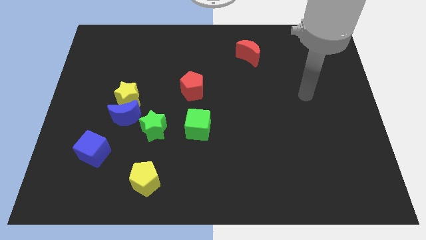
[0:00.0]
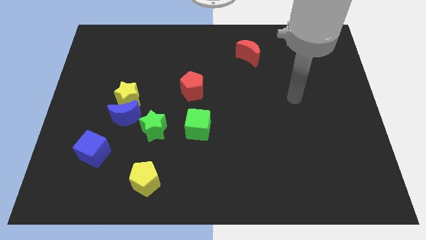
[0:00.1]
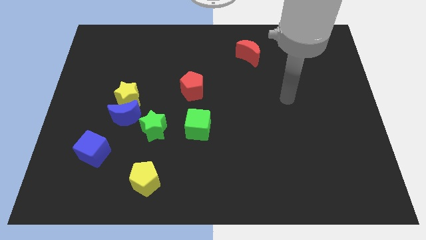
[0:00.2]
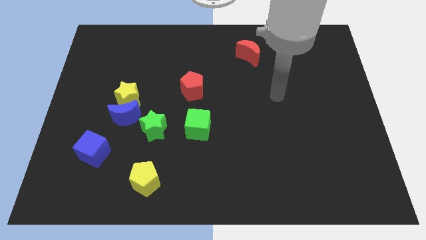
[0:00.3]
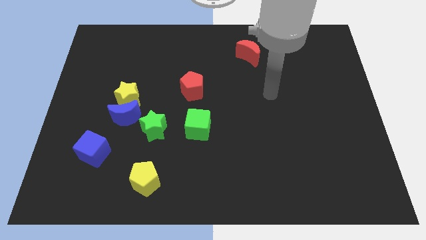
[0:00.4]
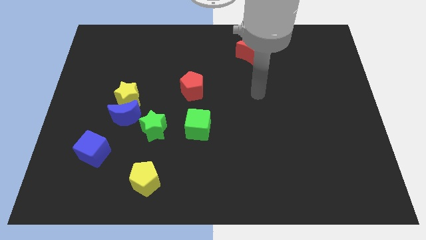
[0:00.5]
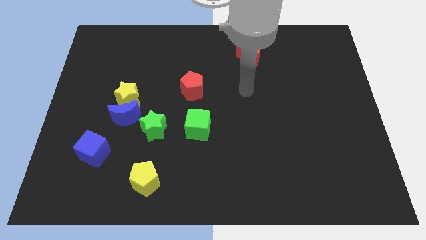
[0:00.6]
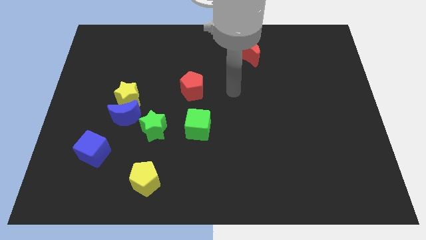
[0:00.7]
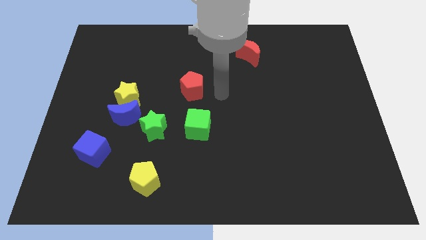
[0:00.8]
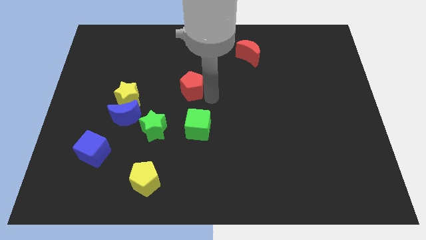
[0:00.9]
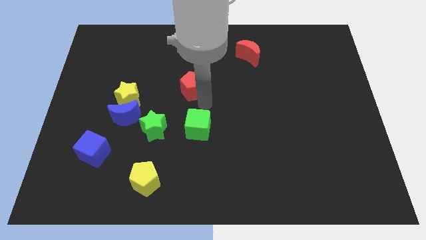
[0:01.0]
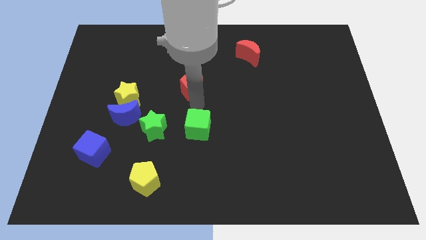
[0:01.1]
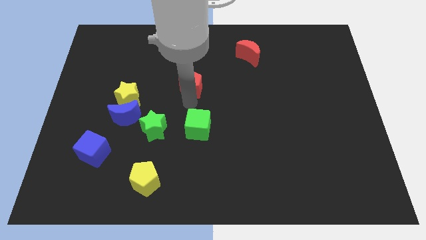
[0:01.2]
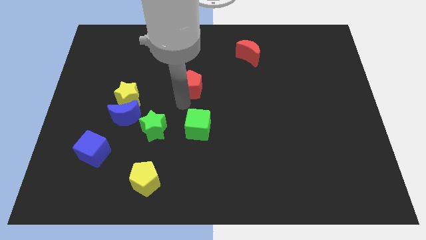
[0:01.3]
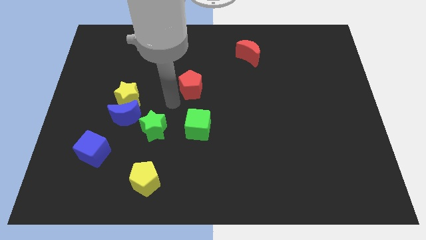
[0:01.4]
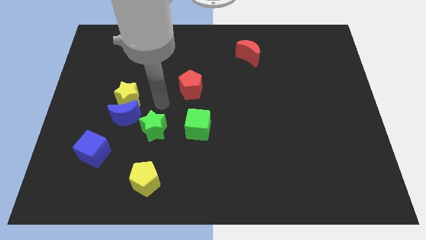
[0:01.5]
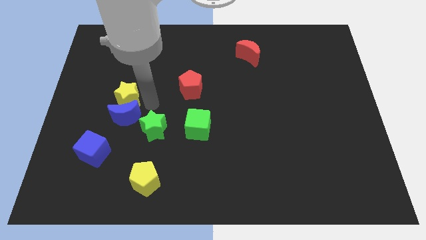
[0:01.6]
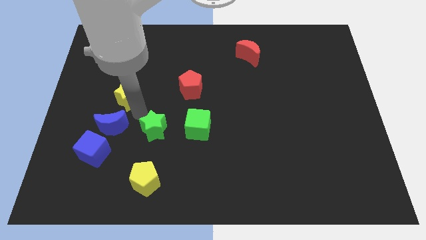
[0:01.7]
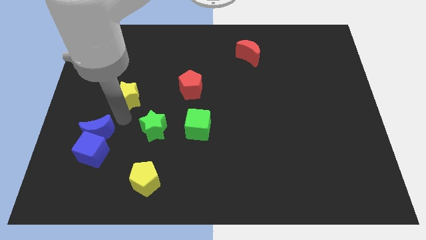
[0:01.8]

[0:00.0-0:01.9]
move the yellow star away from the blue moon

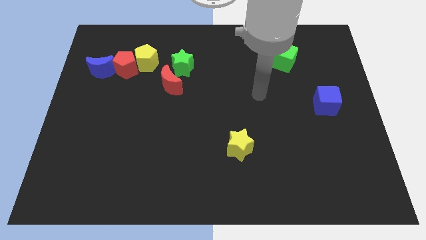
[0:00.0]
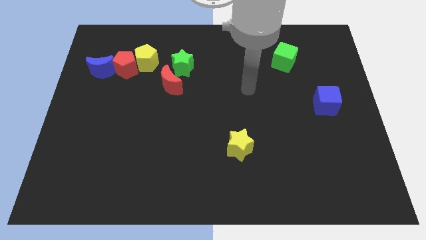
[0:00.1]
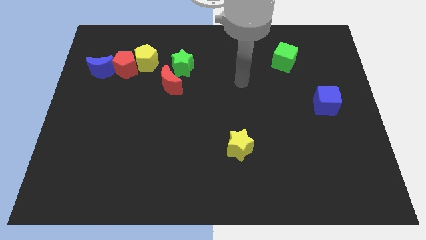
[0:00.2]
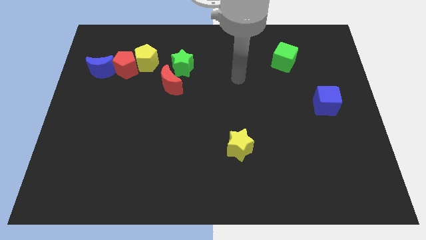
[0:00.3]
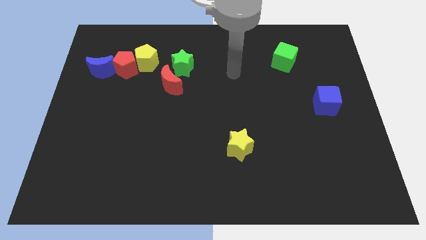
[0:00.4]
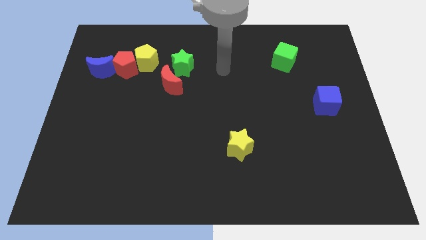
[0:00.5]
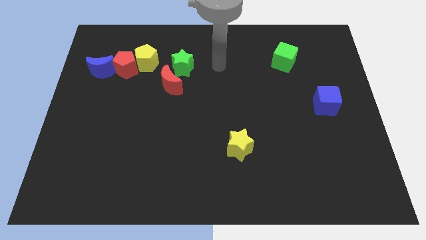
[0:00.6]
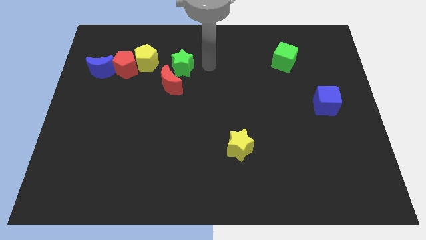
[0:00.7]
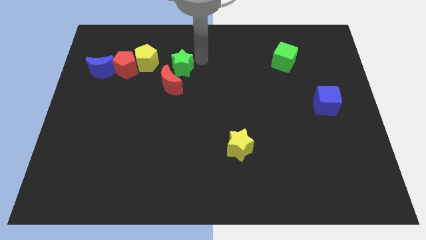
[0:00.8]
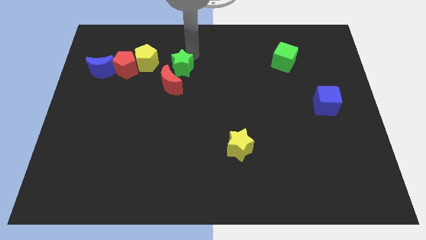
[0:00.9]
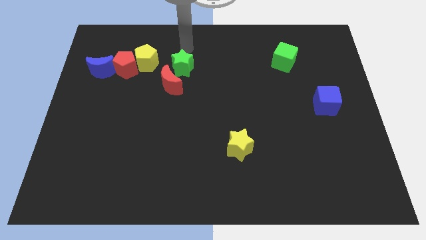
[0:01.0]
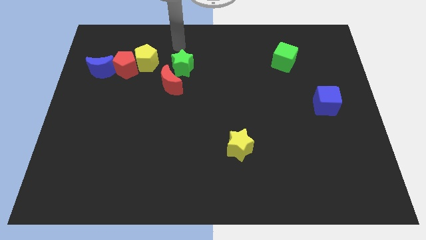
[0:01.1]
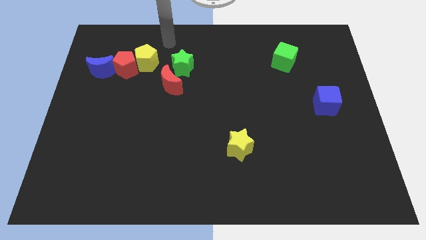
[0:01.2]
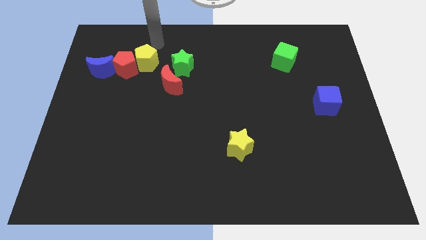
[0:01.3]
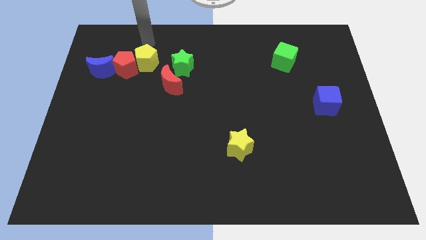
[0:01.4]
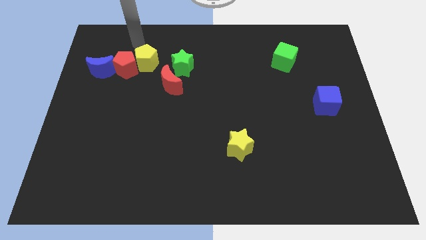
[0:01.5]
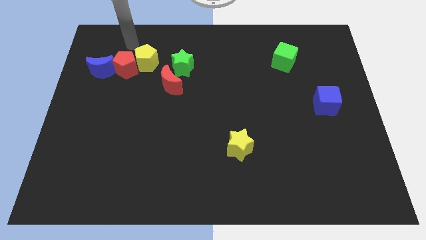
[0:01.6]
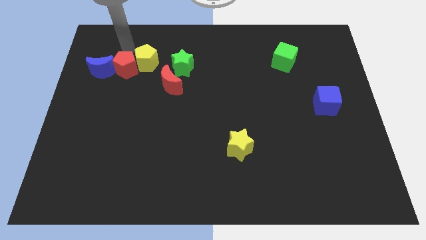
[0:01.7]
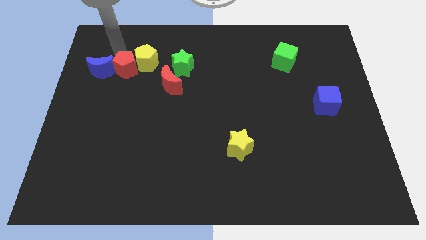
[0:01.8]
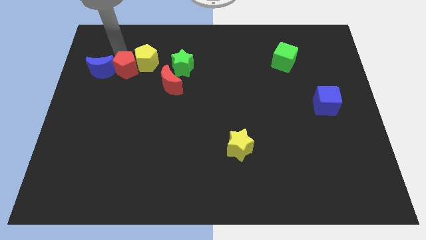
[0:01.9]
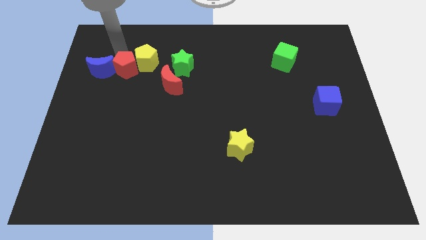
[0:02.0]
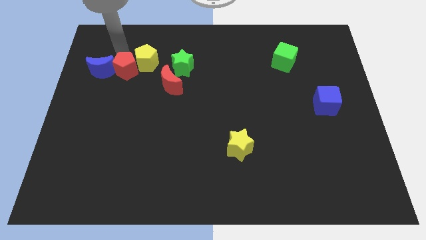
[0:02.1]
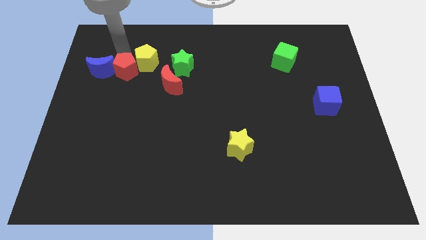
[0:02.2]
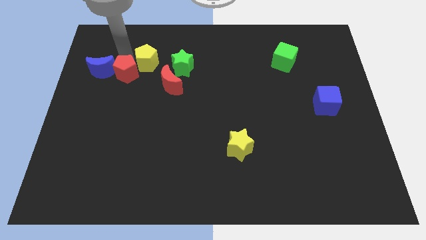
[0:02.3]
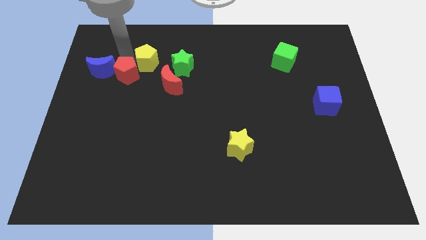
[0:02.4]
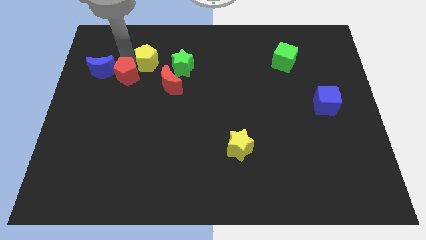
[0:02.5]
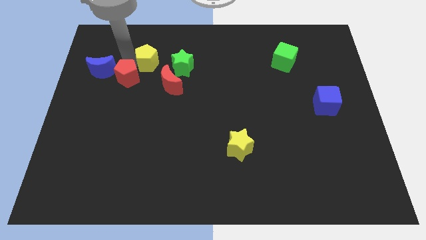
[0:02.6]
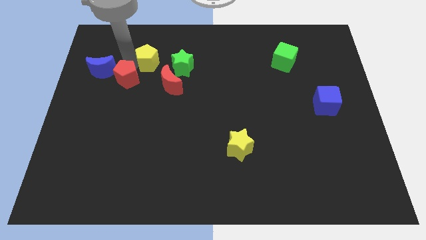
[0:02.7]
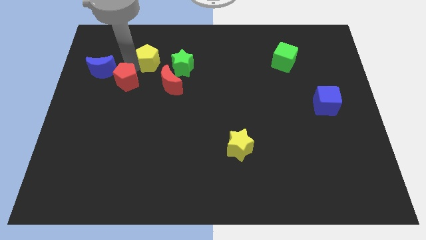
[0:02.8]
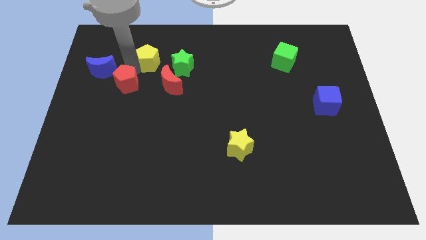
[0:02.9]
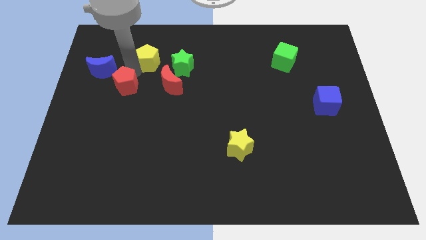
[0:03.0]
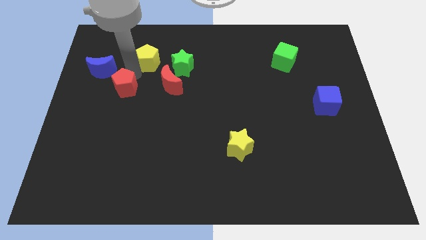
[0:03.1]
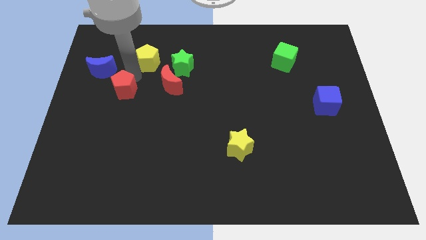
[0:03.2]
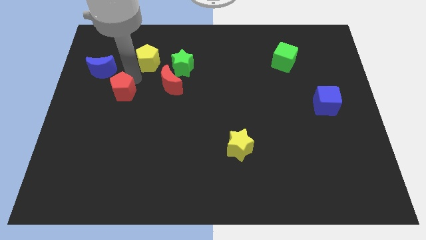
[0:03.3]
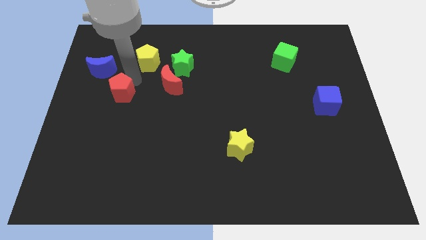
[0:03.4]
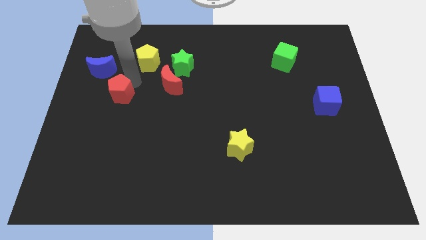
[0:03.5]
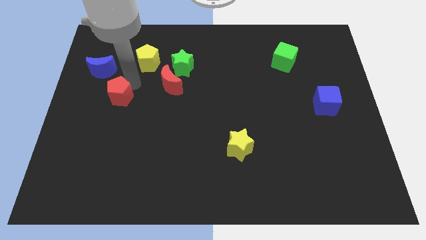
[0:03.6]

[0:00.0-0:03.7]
pull the red pentagon apart from the yellow pentagon and blue moon

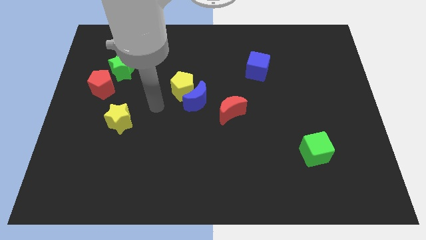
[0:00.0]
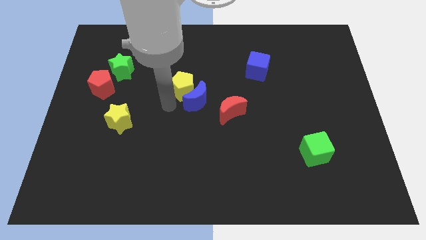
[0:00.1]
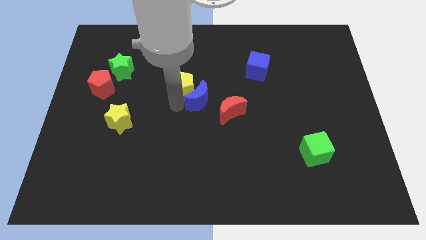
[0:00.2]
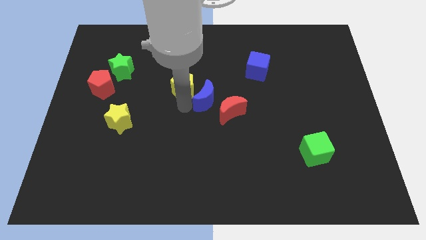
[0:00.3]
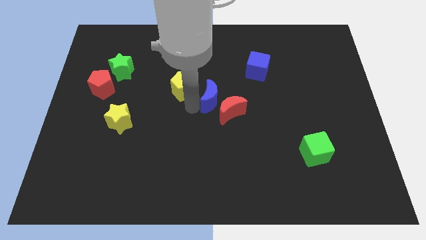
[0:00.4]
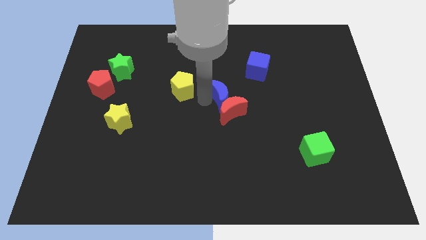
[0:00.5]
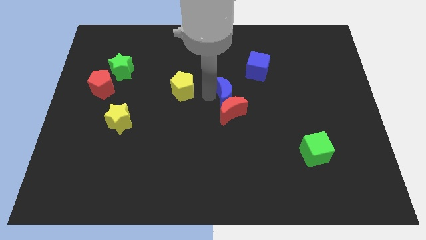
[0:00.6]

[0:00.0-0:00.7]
pull the yellow pentagon apart from the blue moon

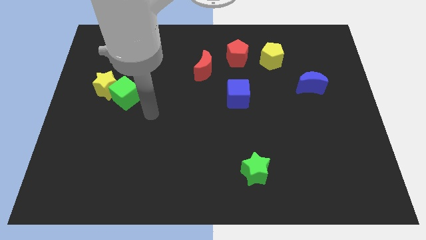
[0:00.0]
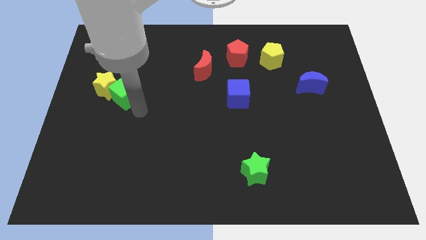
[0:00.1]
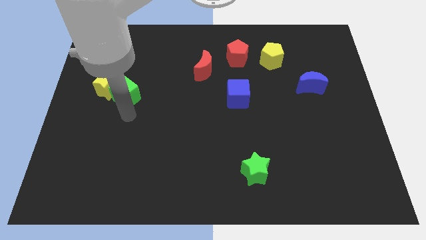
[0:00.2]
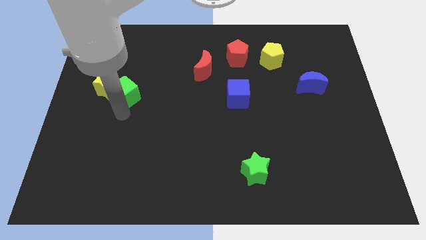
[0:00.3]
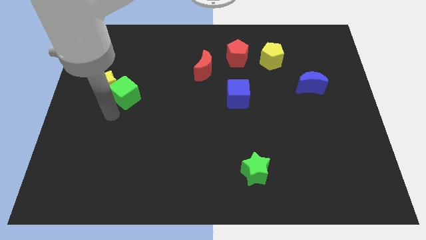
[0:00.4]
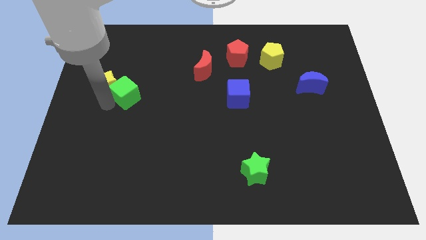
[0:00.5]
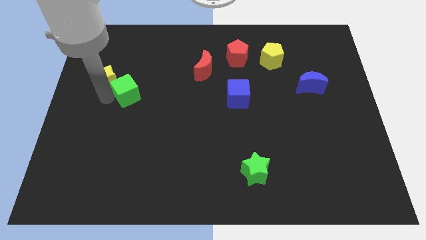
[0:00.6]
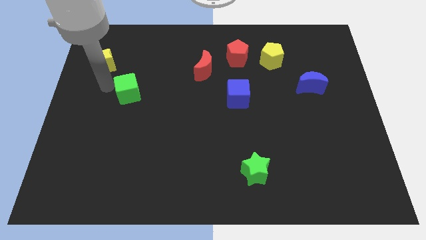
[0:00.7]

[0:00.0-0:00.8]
pull the green cube apart from the yellow star

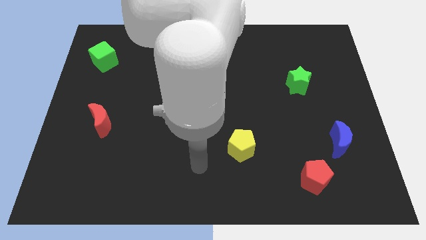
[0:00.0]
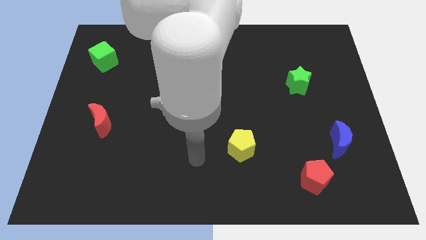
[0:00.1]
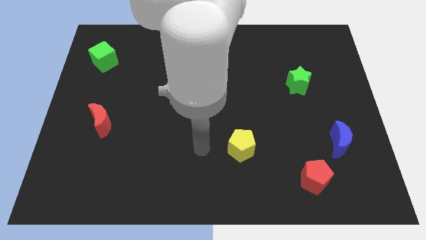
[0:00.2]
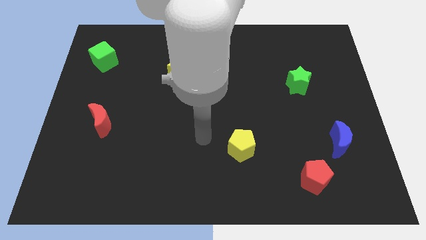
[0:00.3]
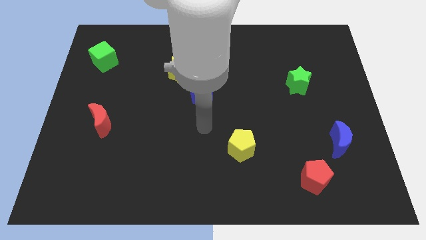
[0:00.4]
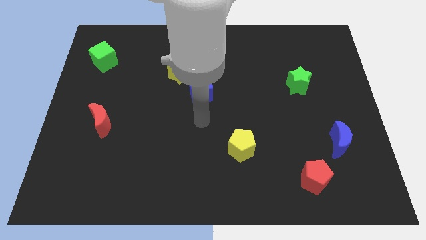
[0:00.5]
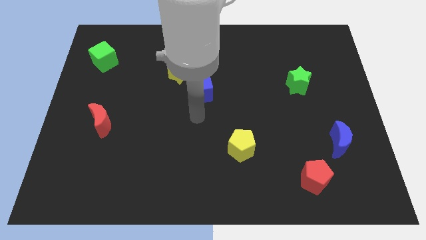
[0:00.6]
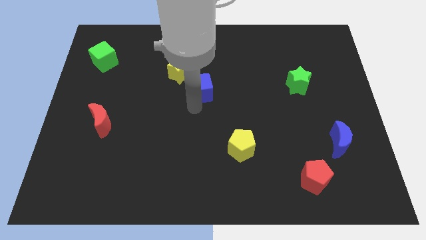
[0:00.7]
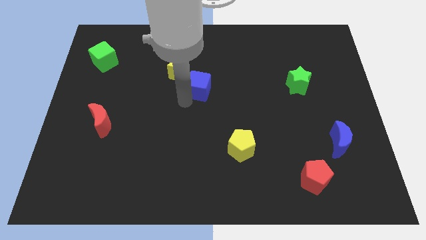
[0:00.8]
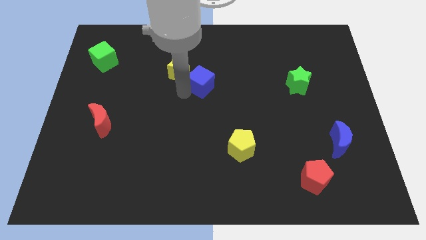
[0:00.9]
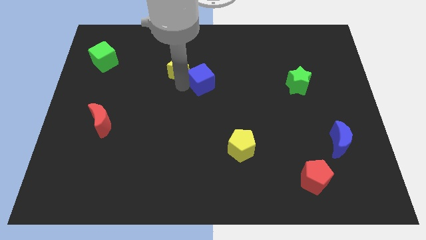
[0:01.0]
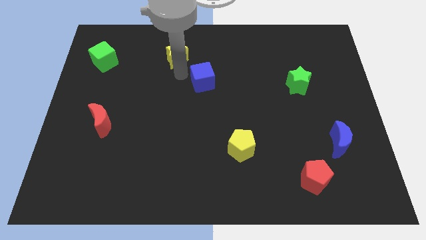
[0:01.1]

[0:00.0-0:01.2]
pull the blue cube apart from the yellow star

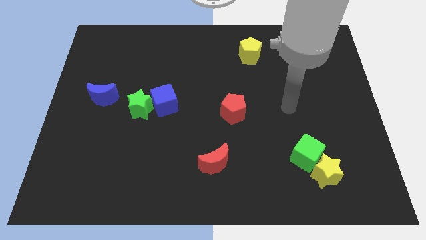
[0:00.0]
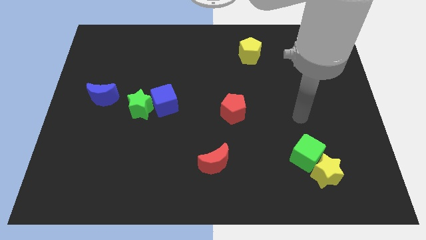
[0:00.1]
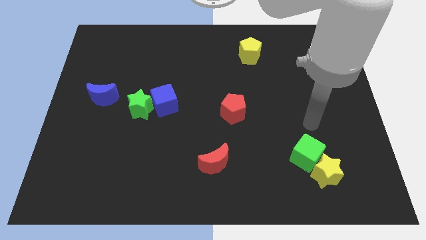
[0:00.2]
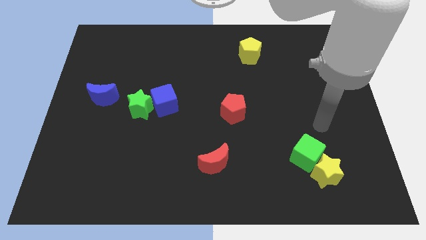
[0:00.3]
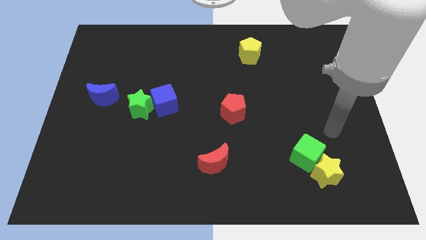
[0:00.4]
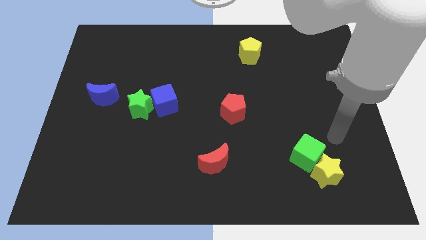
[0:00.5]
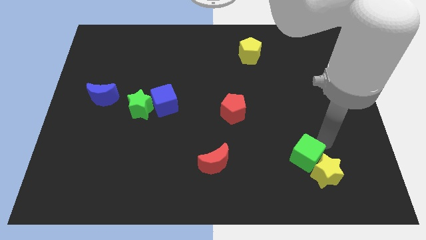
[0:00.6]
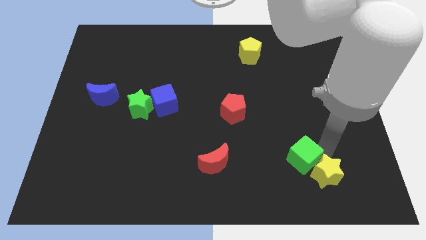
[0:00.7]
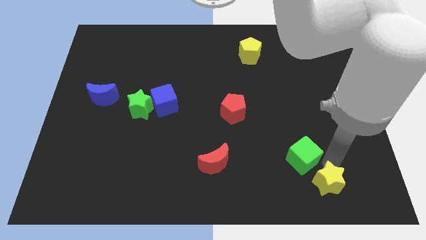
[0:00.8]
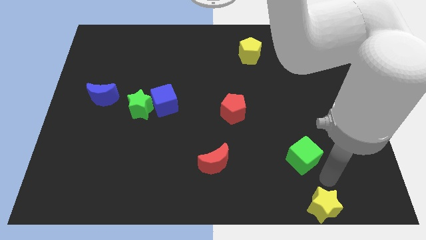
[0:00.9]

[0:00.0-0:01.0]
move the green cube away from the yellow star
